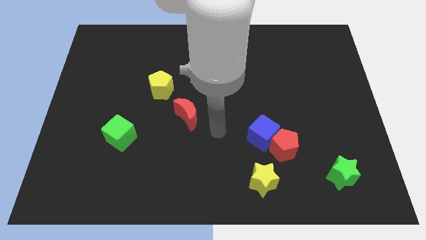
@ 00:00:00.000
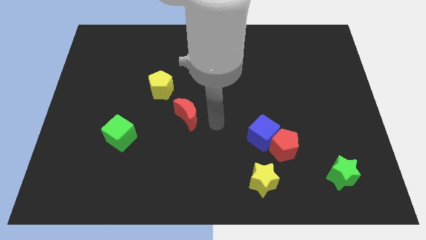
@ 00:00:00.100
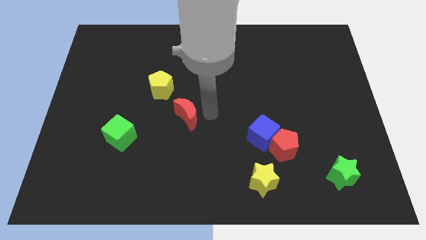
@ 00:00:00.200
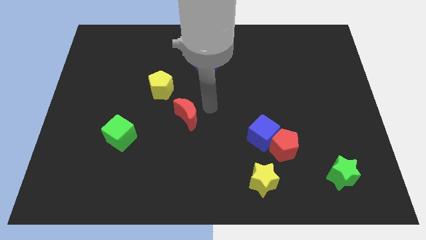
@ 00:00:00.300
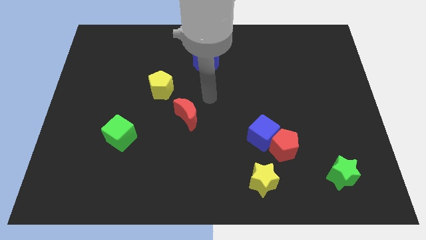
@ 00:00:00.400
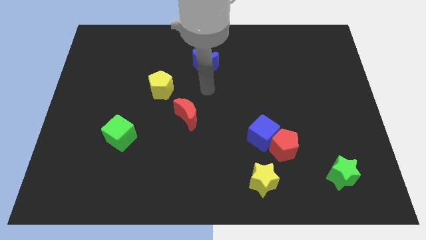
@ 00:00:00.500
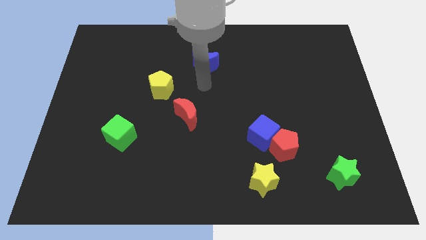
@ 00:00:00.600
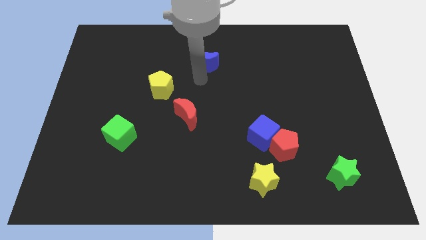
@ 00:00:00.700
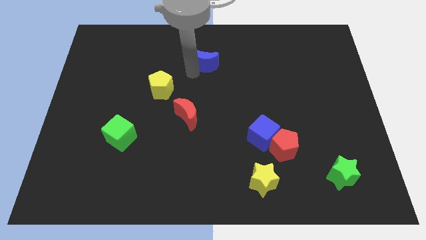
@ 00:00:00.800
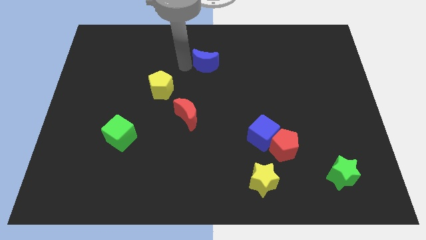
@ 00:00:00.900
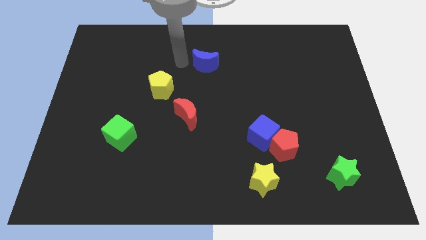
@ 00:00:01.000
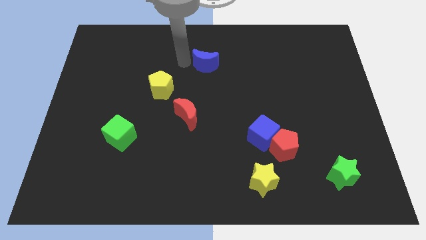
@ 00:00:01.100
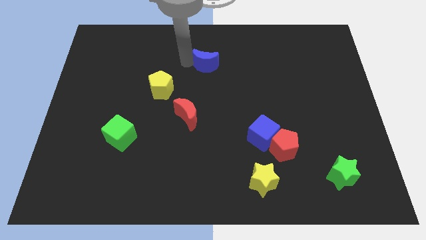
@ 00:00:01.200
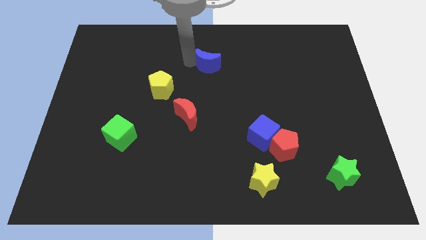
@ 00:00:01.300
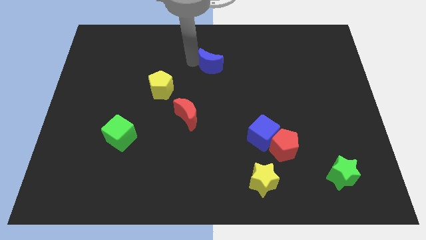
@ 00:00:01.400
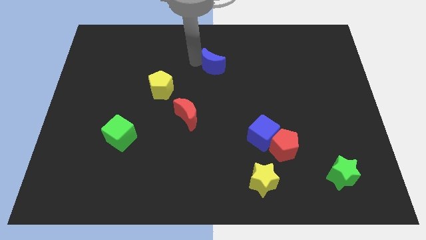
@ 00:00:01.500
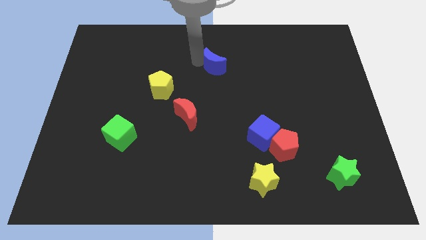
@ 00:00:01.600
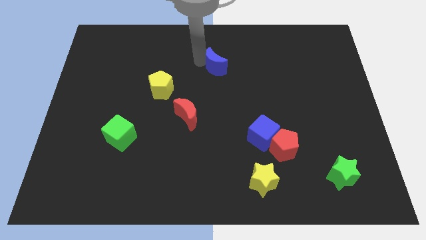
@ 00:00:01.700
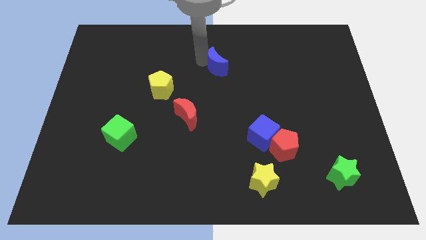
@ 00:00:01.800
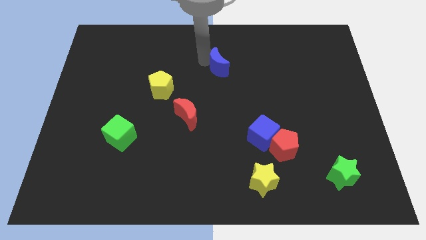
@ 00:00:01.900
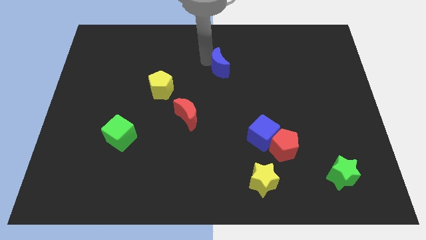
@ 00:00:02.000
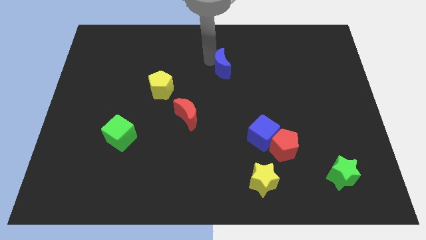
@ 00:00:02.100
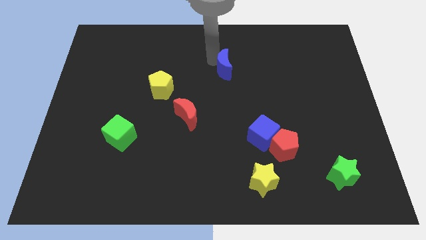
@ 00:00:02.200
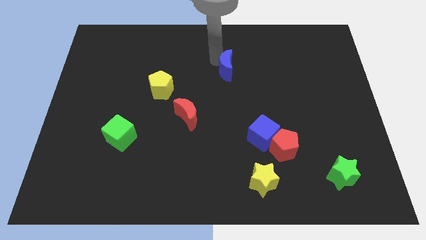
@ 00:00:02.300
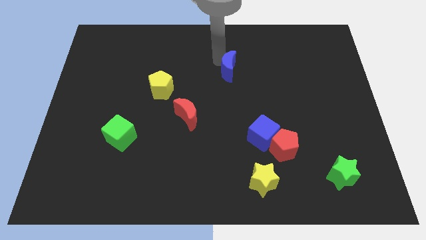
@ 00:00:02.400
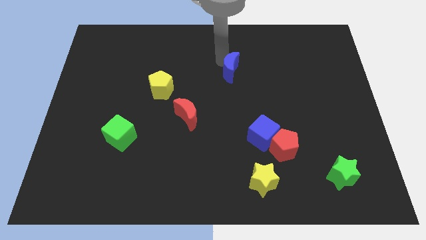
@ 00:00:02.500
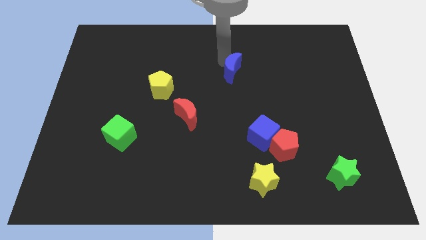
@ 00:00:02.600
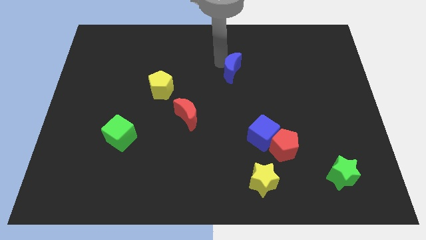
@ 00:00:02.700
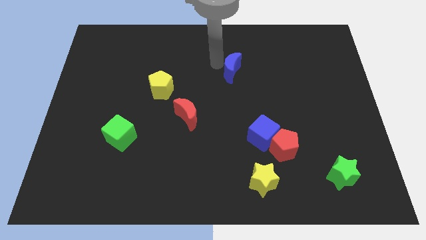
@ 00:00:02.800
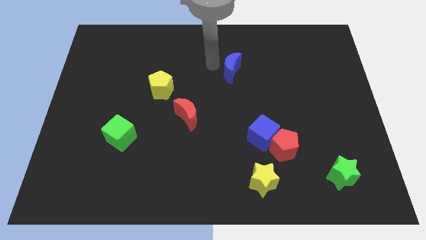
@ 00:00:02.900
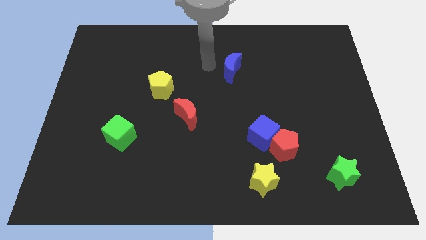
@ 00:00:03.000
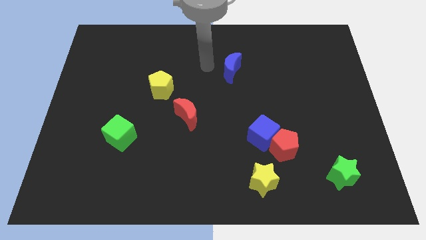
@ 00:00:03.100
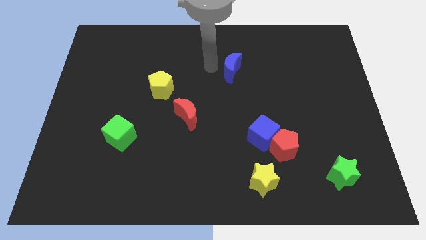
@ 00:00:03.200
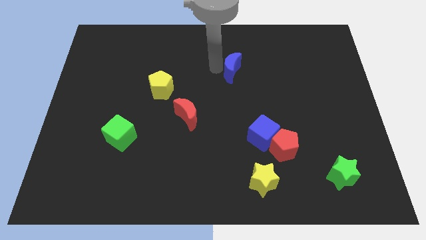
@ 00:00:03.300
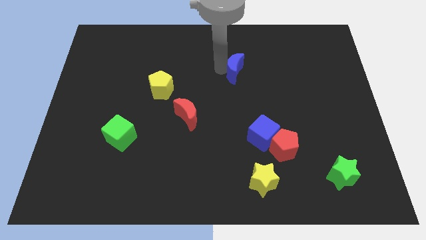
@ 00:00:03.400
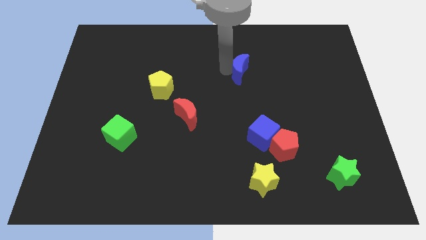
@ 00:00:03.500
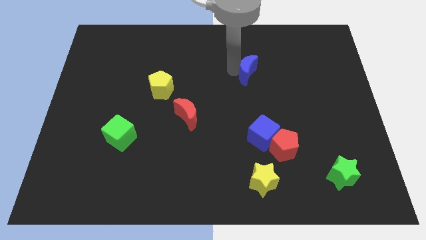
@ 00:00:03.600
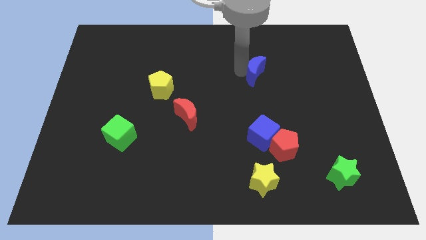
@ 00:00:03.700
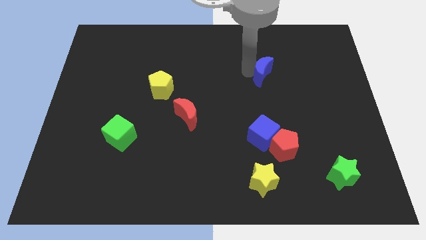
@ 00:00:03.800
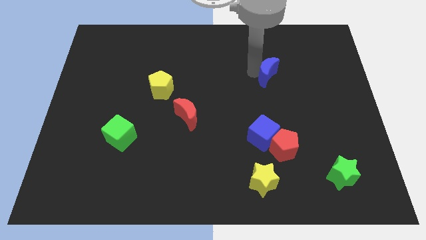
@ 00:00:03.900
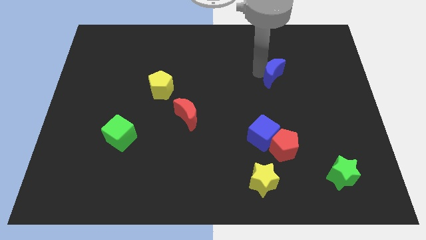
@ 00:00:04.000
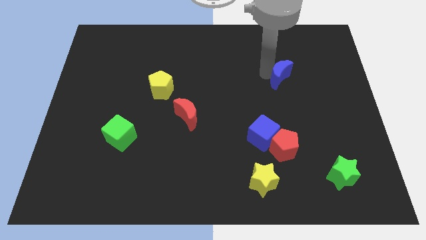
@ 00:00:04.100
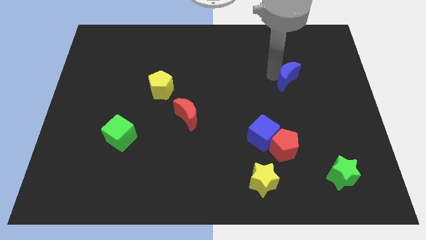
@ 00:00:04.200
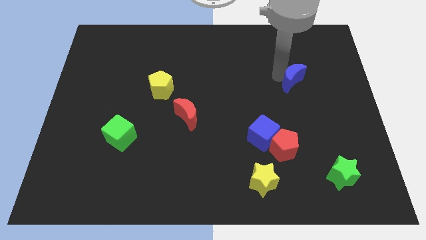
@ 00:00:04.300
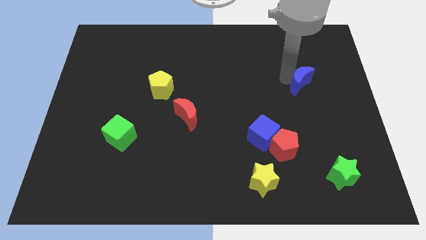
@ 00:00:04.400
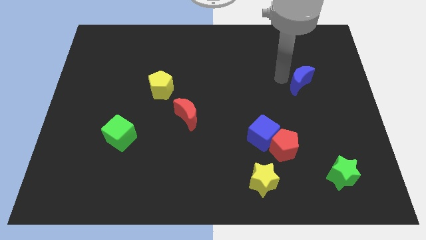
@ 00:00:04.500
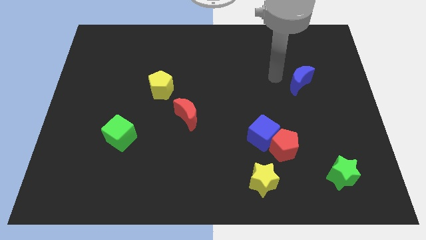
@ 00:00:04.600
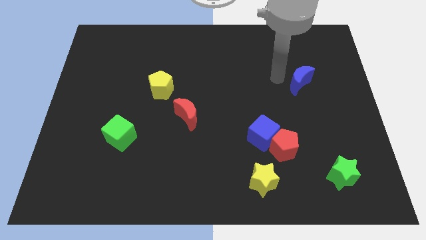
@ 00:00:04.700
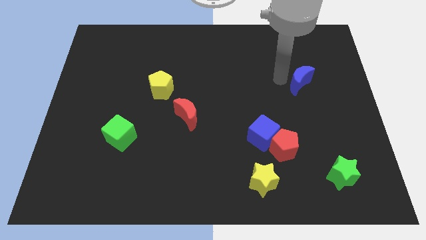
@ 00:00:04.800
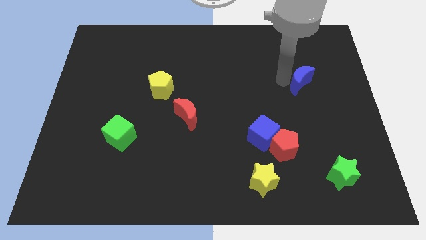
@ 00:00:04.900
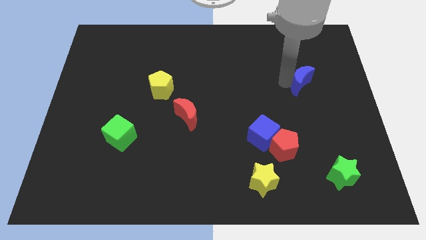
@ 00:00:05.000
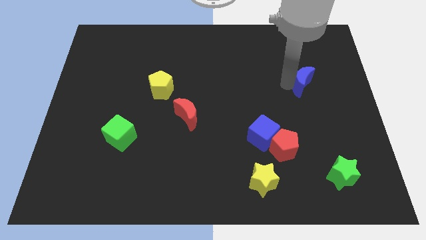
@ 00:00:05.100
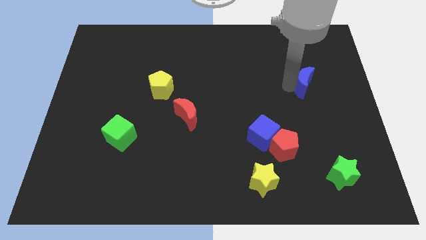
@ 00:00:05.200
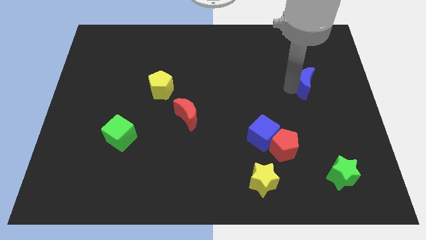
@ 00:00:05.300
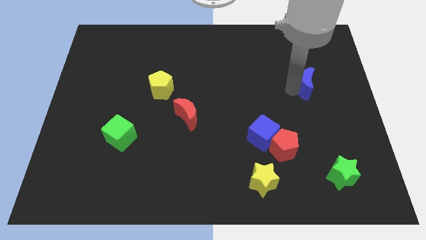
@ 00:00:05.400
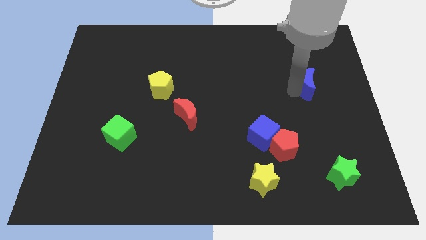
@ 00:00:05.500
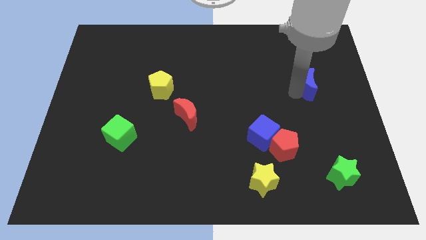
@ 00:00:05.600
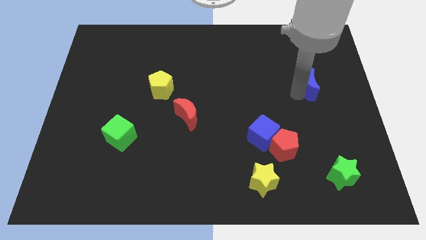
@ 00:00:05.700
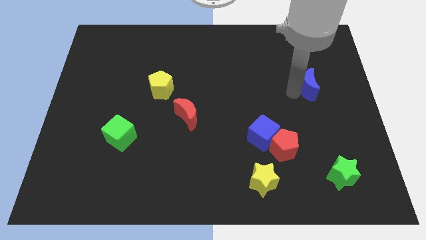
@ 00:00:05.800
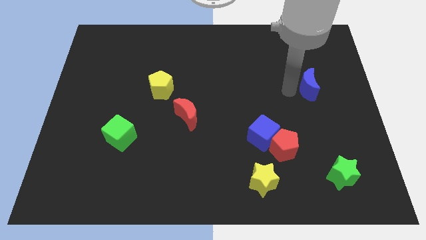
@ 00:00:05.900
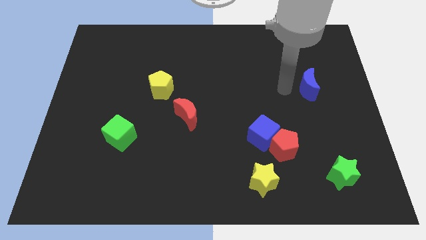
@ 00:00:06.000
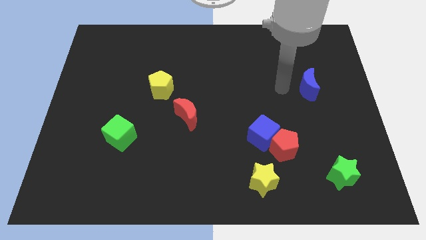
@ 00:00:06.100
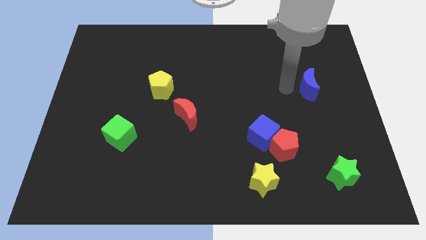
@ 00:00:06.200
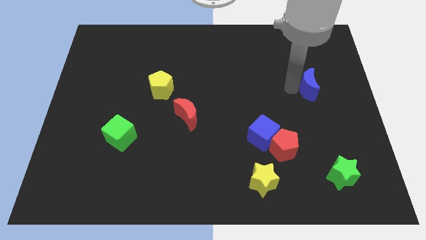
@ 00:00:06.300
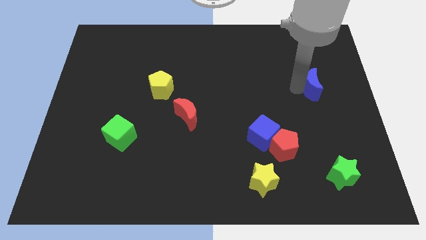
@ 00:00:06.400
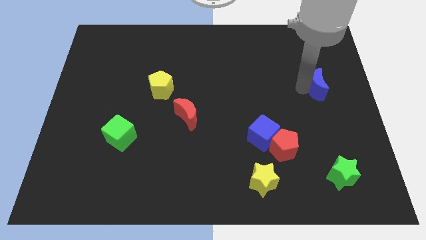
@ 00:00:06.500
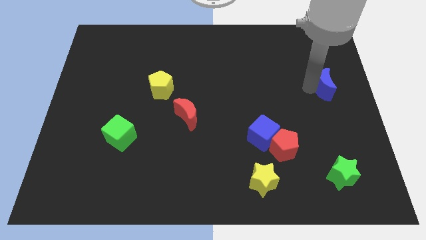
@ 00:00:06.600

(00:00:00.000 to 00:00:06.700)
move the blue moon to the right side of the board
